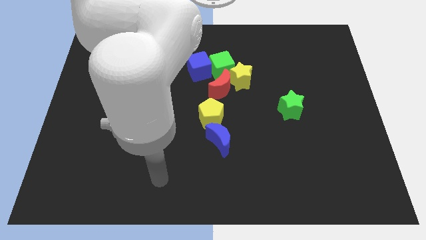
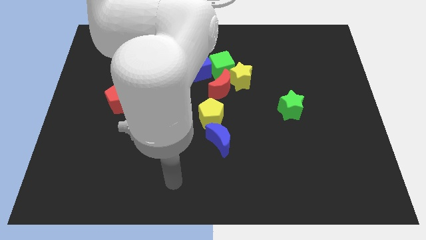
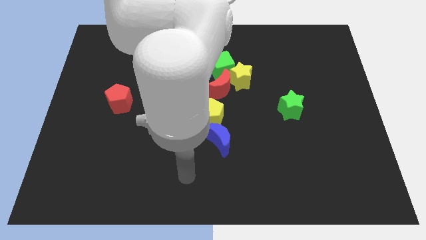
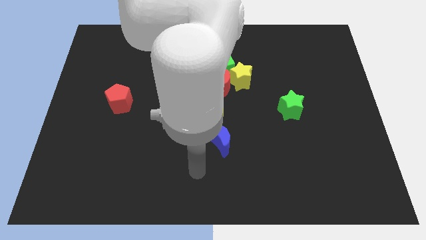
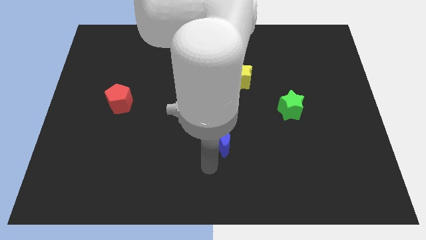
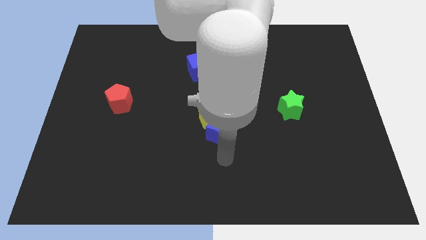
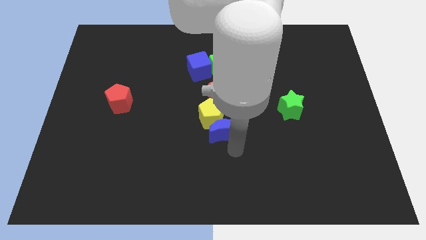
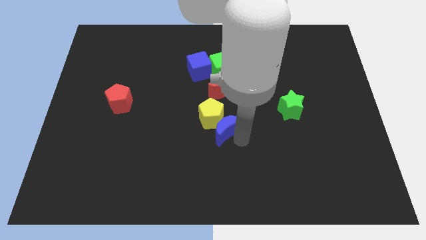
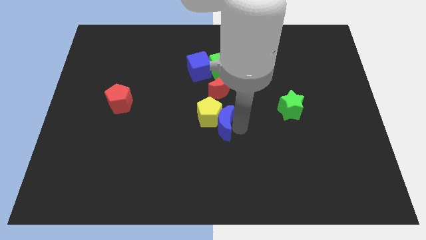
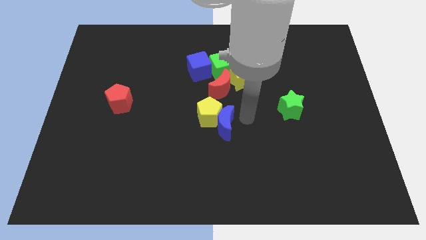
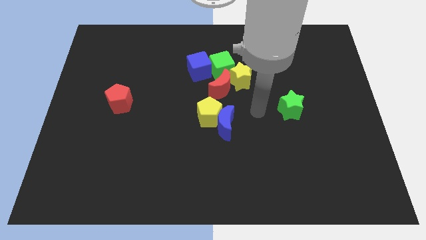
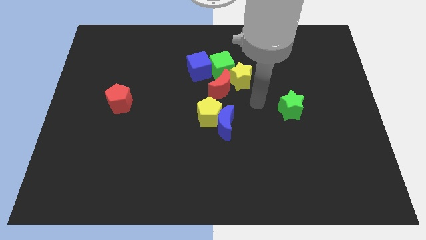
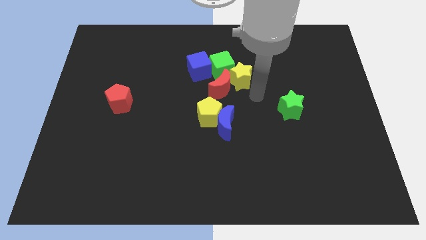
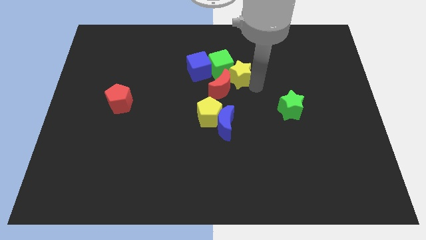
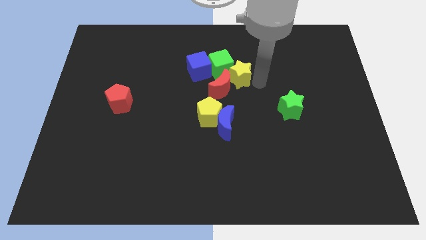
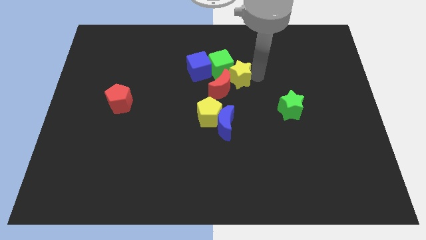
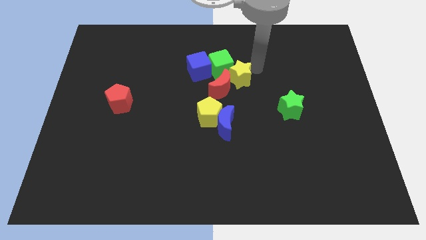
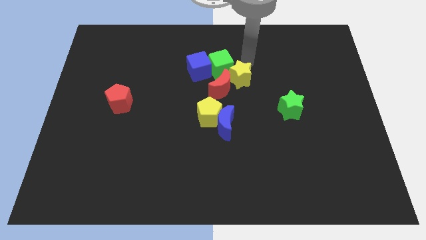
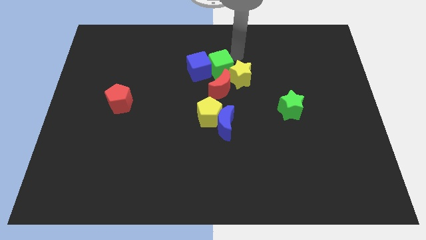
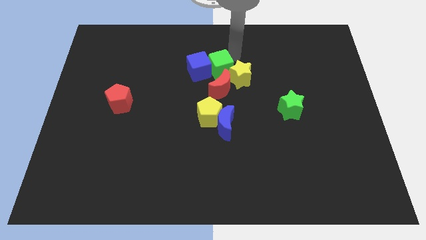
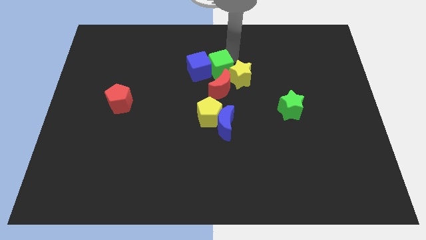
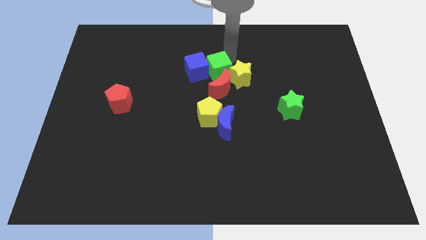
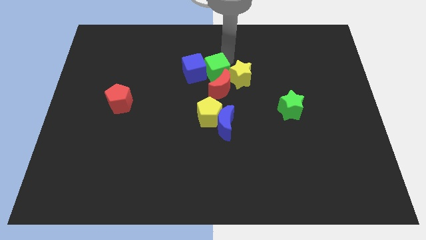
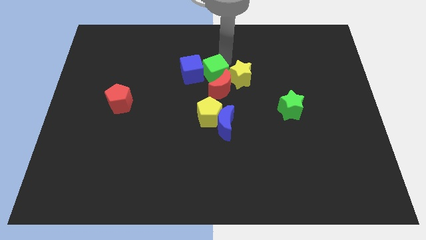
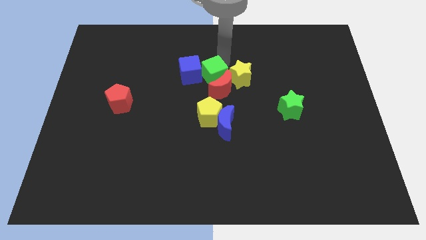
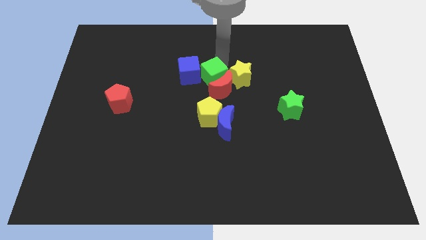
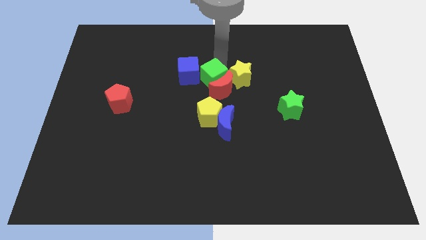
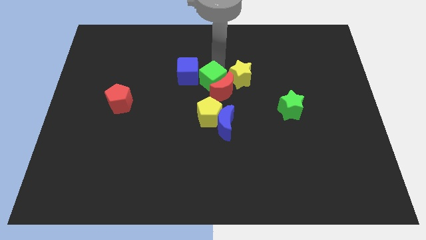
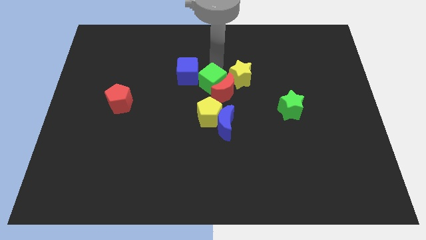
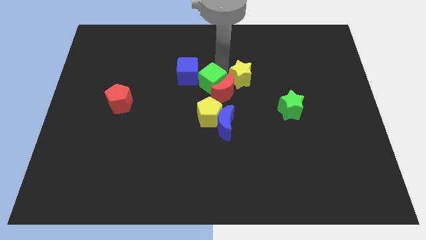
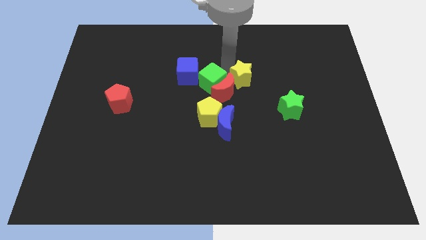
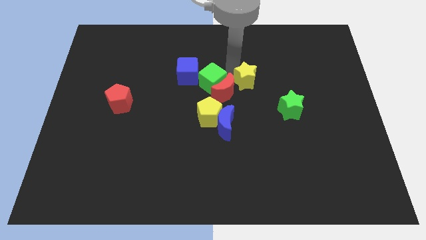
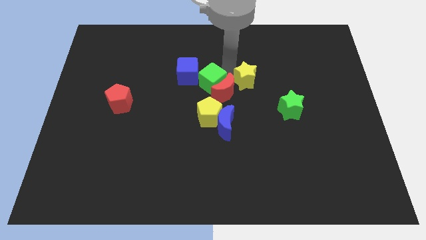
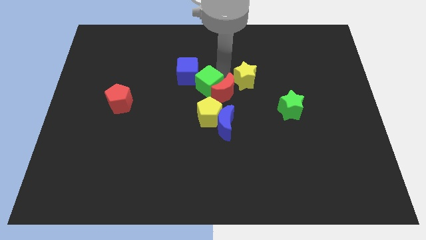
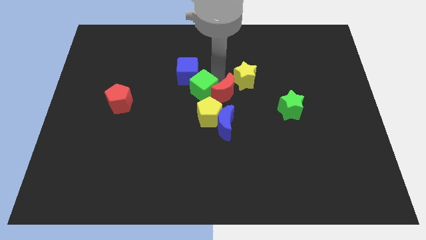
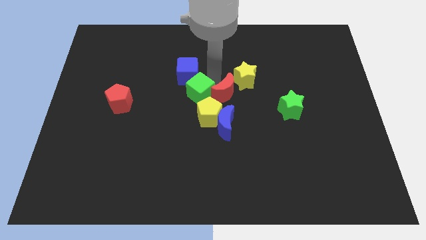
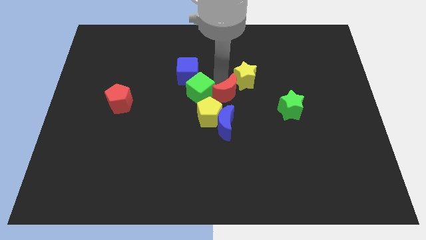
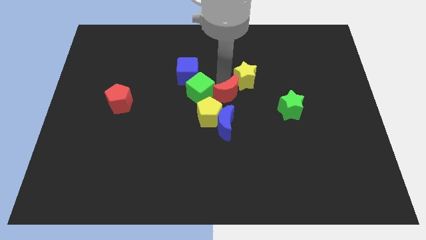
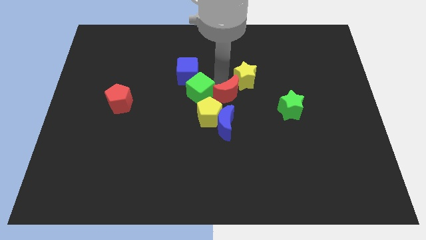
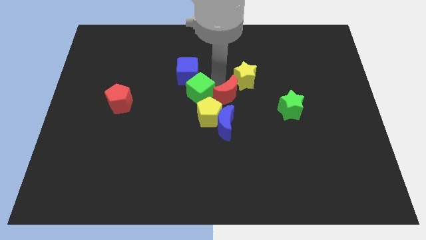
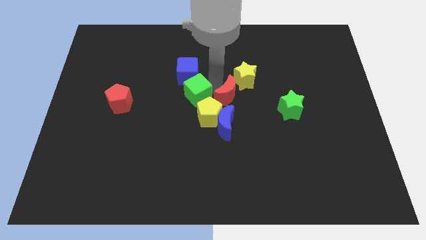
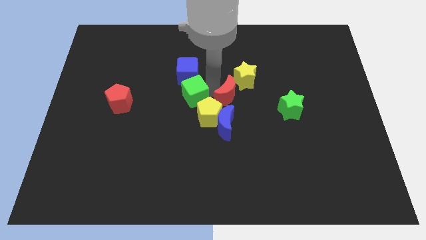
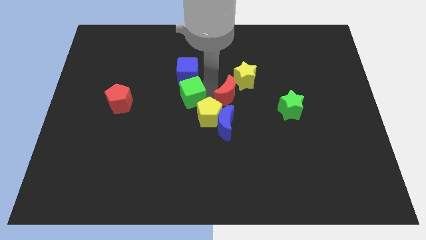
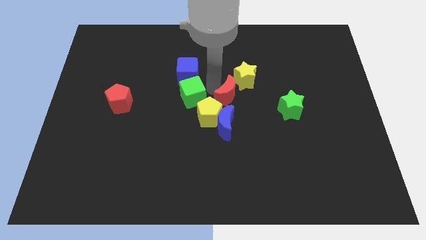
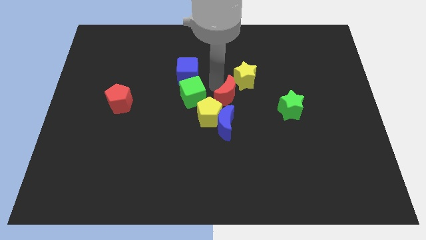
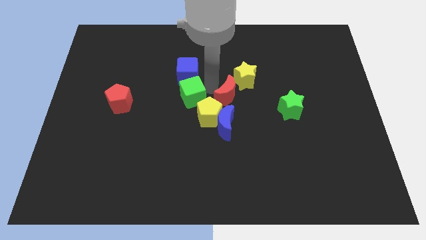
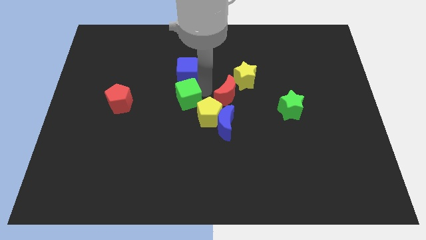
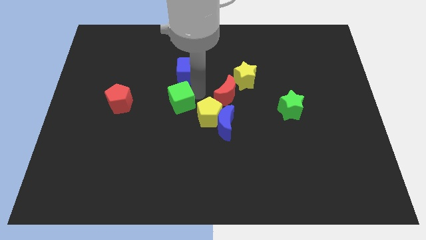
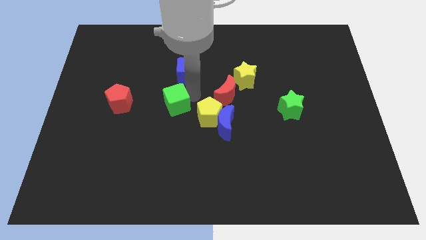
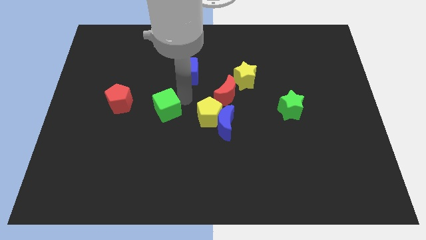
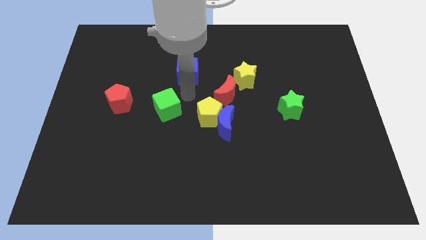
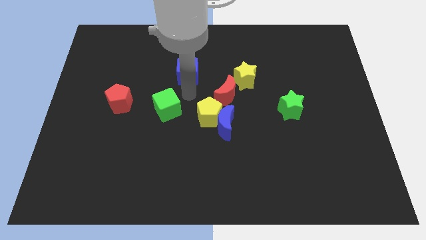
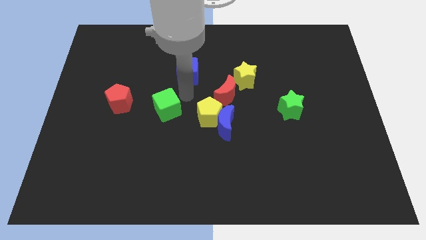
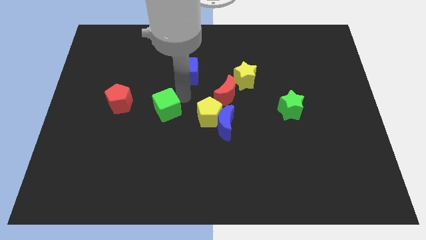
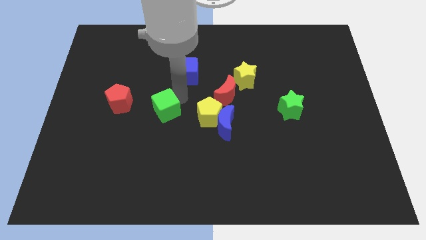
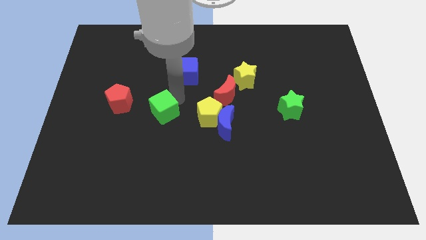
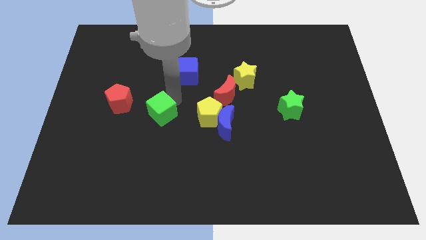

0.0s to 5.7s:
slide the green cube down and left diagonally

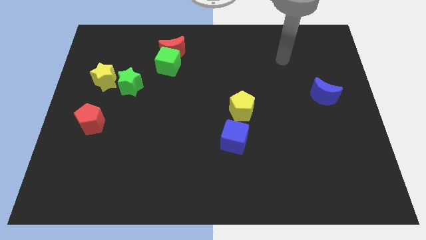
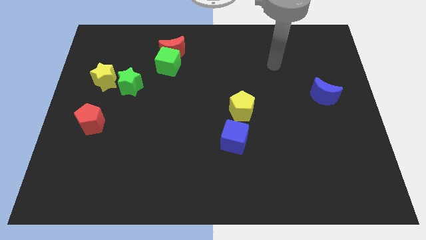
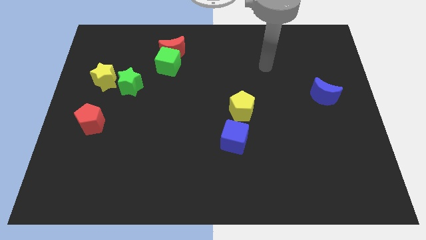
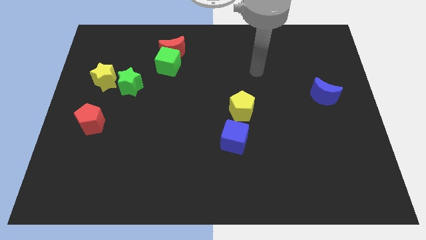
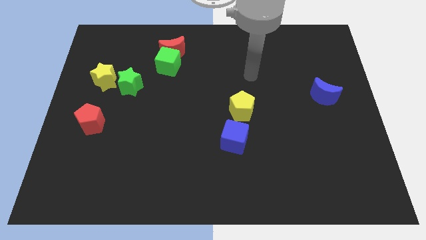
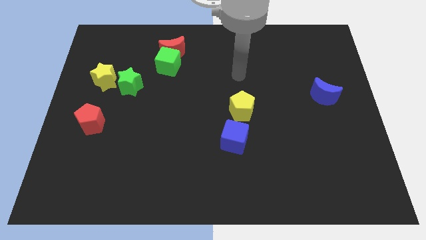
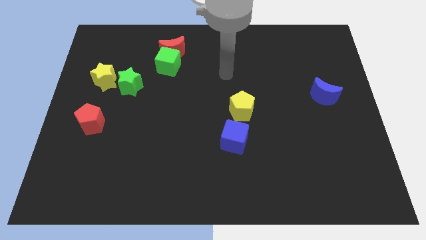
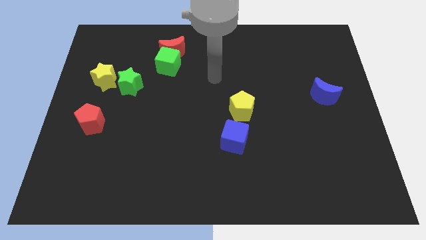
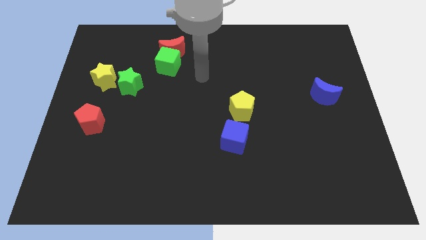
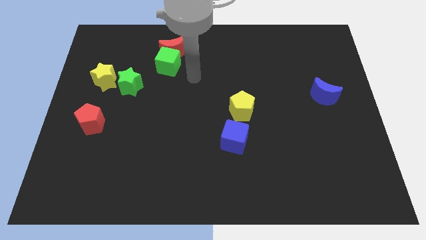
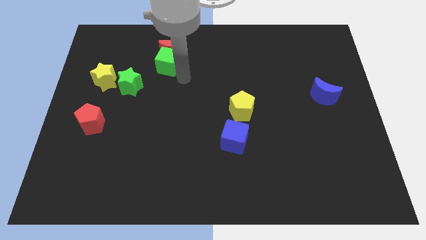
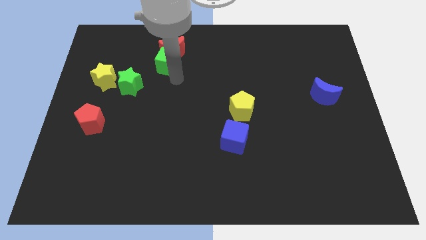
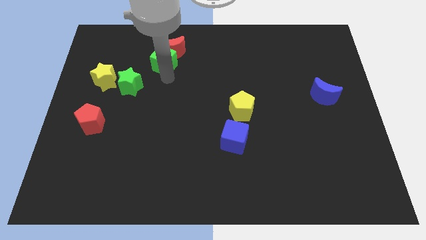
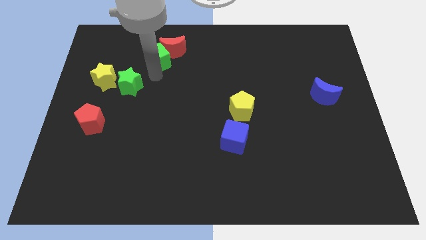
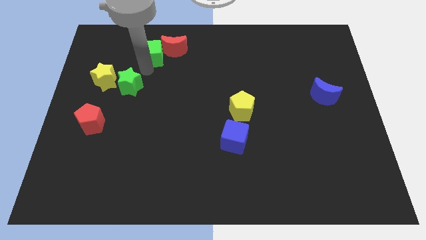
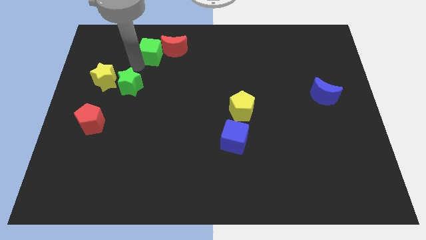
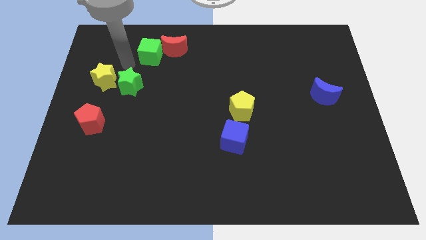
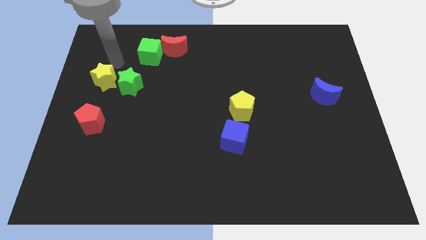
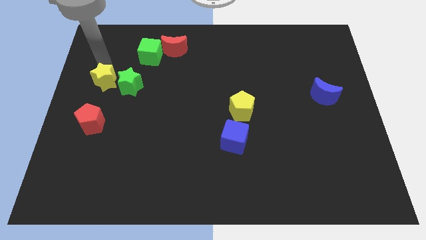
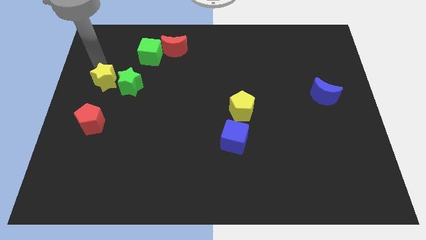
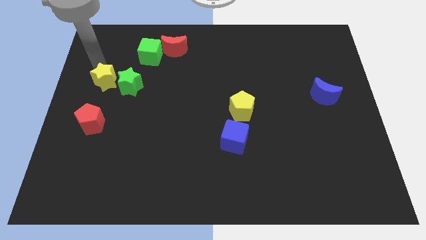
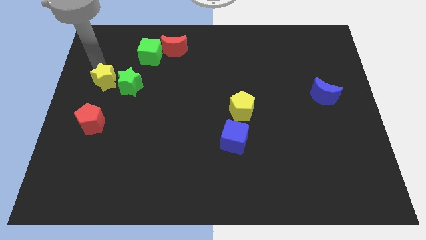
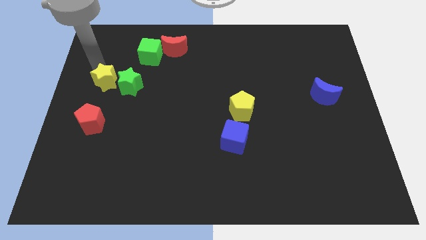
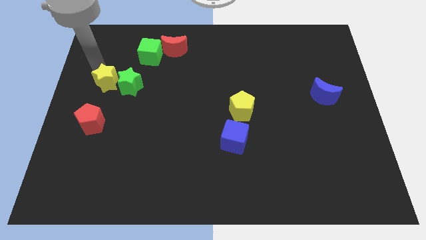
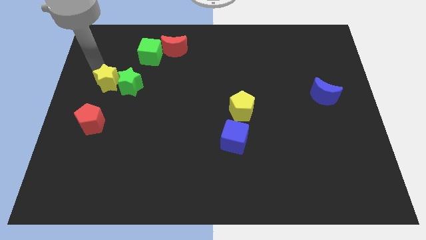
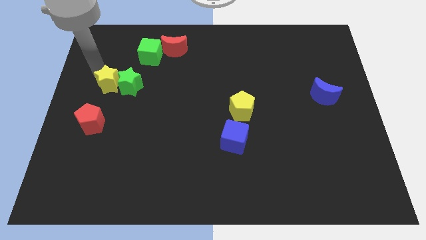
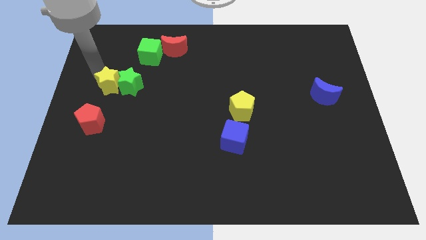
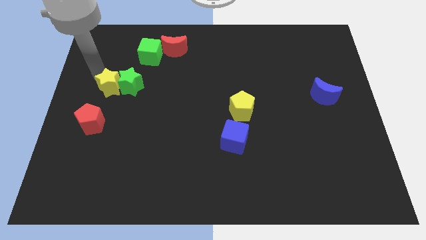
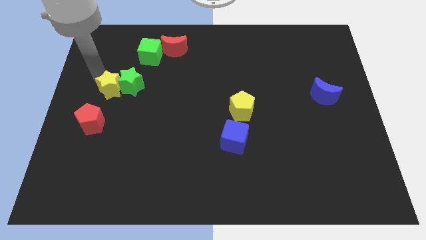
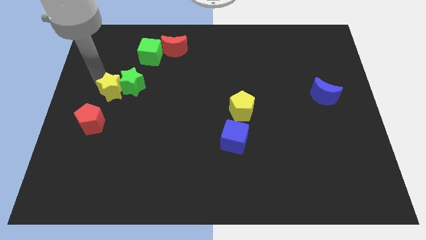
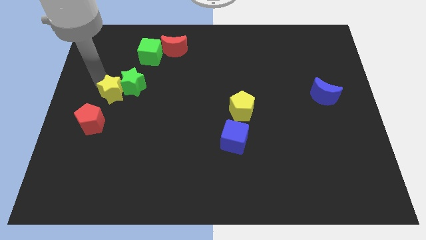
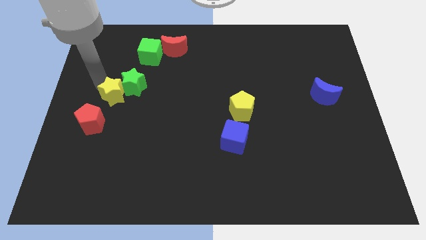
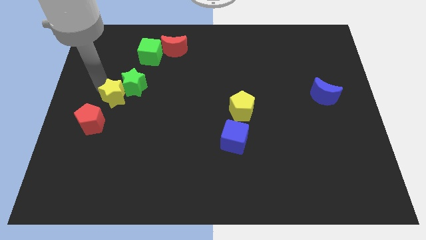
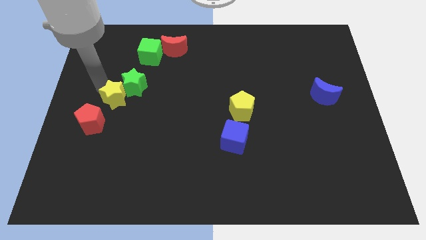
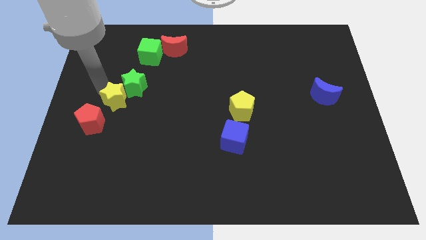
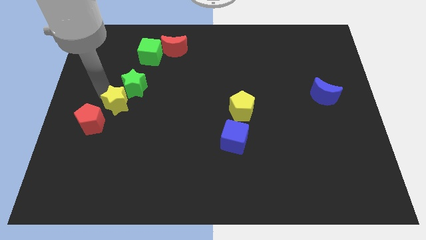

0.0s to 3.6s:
slide the yellow star a little bit downwards
